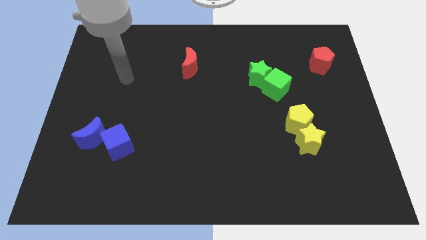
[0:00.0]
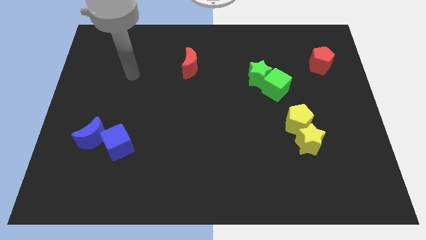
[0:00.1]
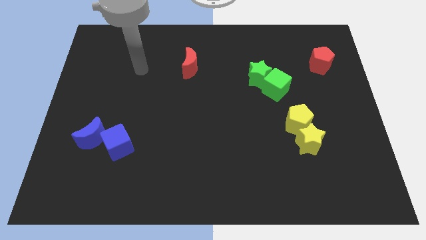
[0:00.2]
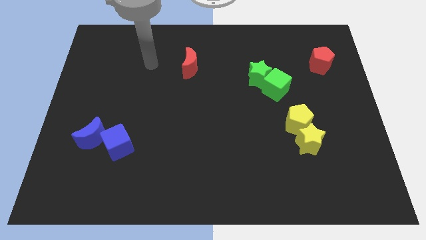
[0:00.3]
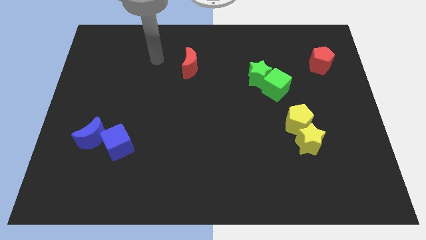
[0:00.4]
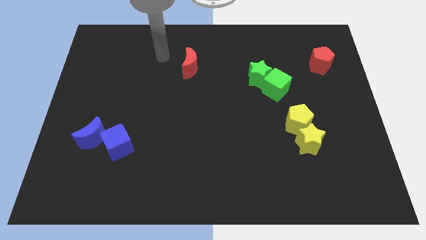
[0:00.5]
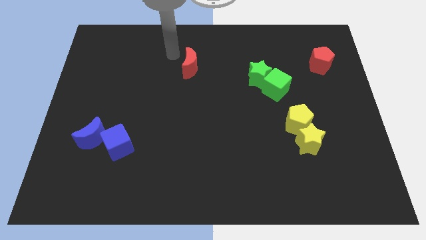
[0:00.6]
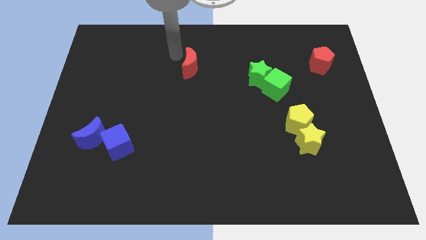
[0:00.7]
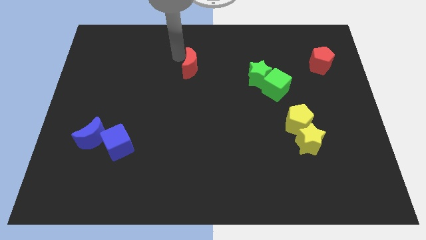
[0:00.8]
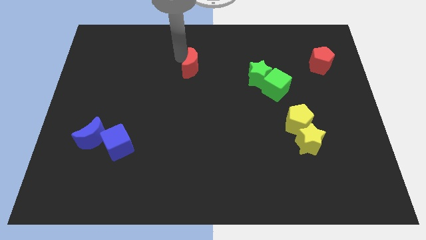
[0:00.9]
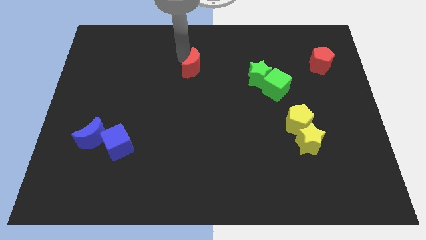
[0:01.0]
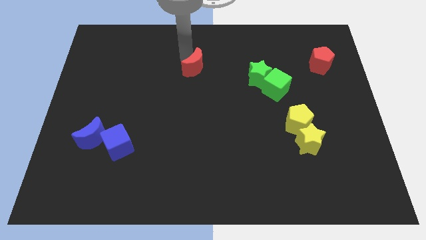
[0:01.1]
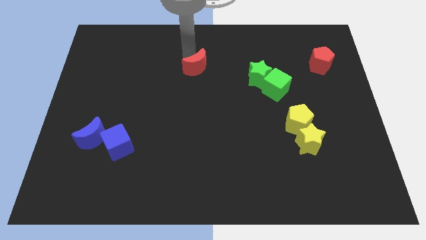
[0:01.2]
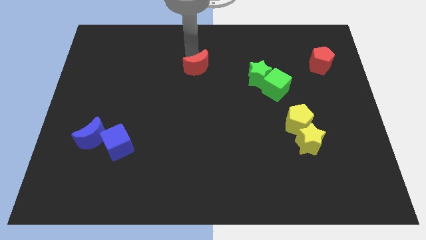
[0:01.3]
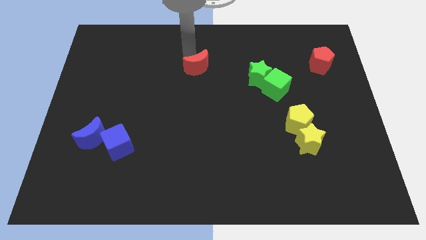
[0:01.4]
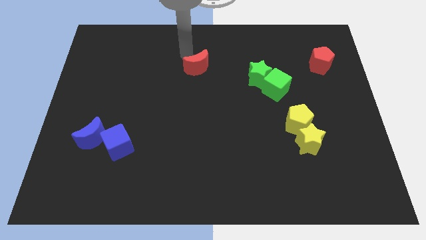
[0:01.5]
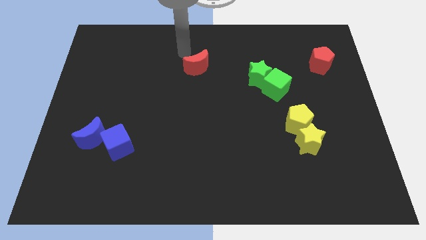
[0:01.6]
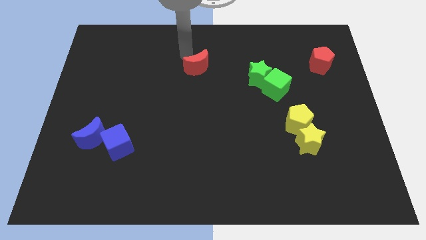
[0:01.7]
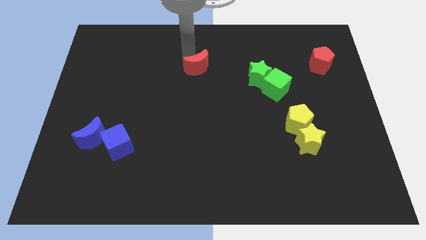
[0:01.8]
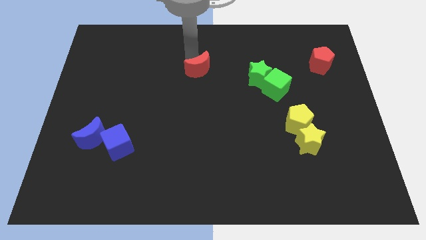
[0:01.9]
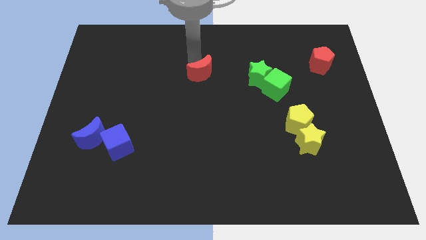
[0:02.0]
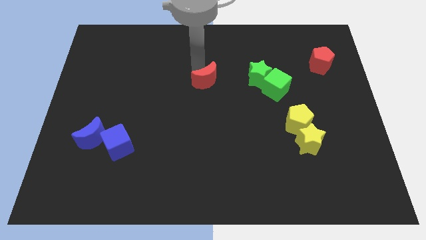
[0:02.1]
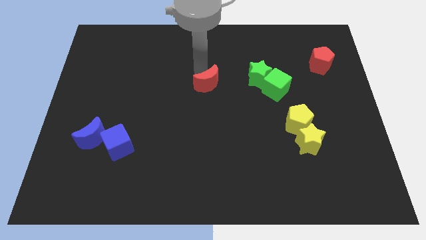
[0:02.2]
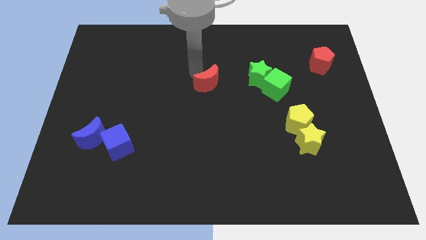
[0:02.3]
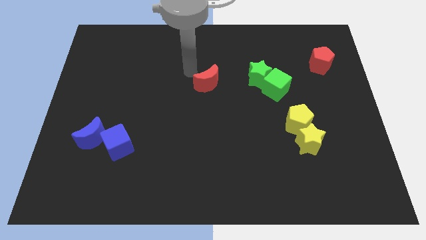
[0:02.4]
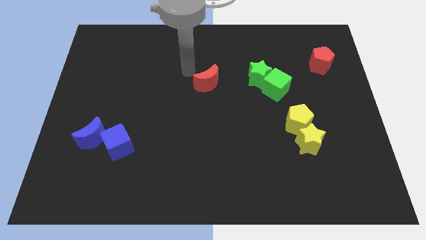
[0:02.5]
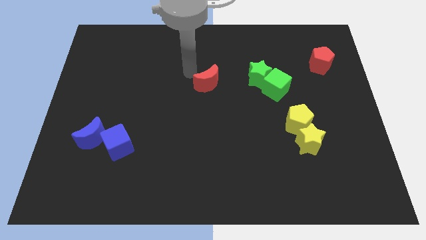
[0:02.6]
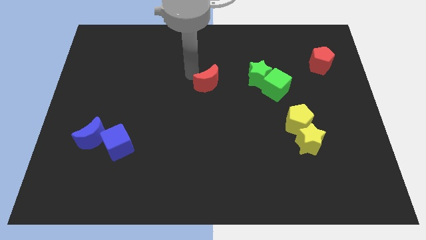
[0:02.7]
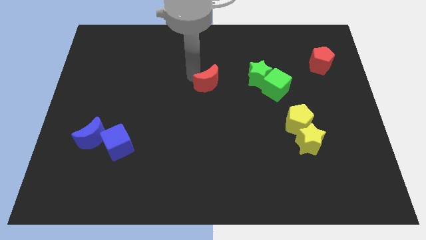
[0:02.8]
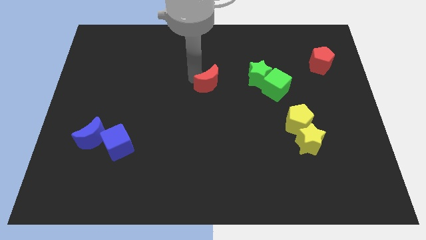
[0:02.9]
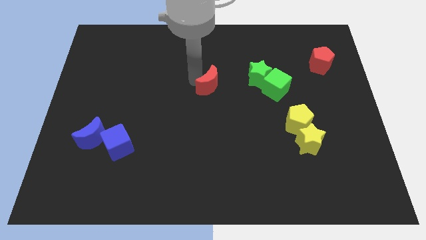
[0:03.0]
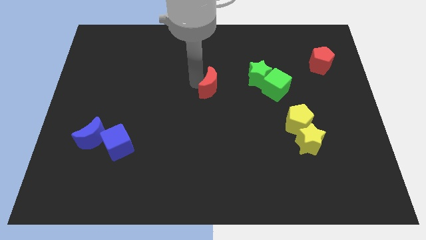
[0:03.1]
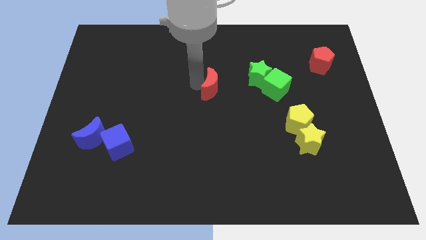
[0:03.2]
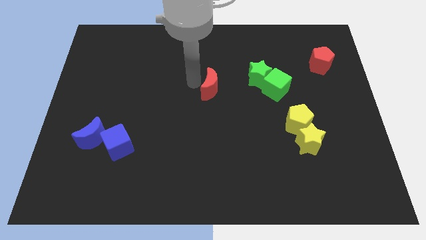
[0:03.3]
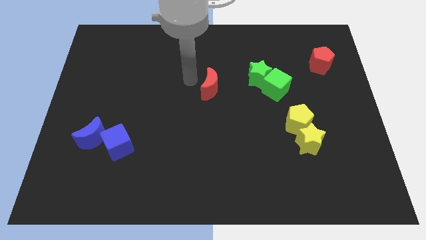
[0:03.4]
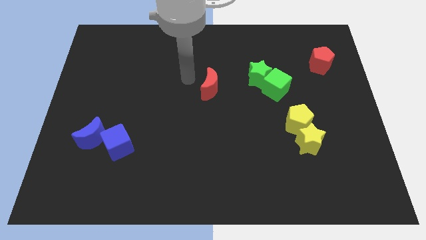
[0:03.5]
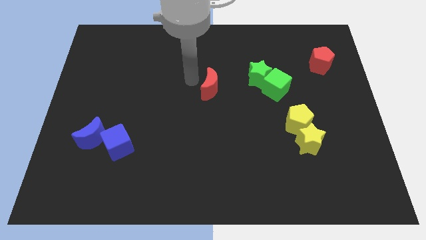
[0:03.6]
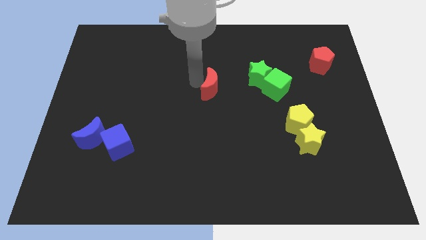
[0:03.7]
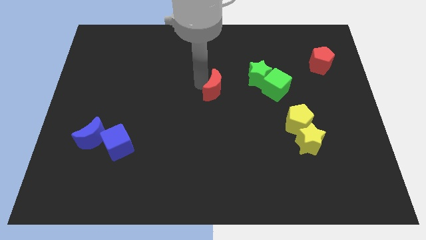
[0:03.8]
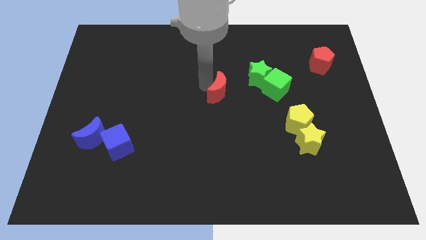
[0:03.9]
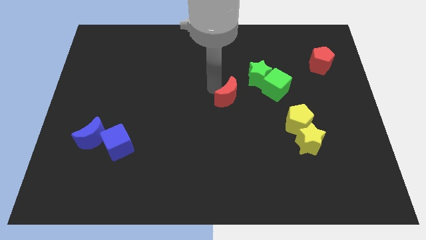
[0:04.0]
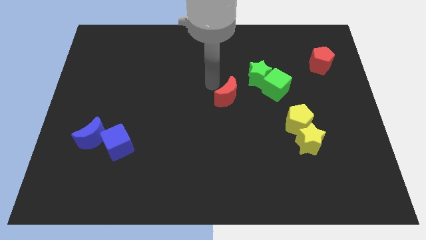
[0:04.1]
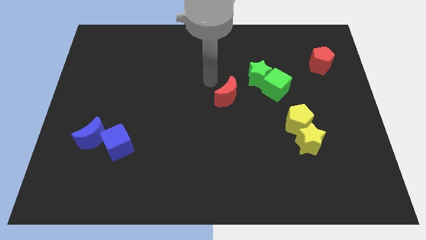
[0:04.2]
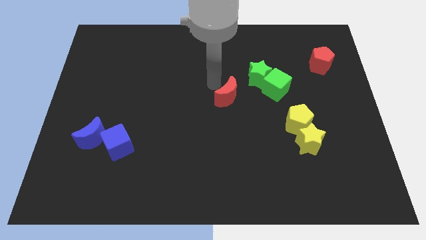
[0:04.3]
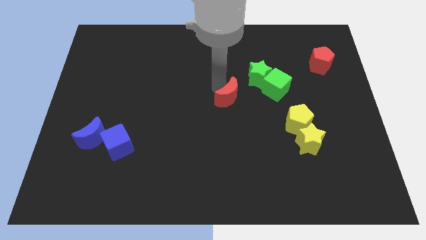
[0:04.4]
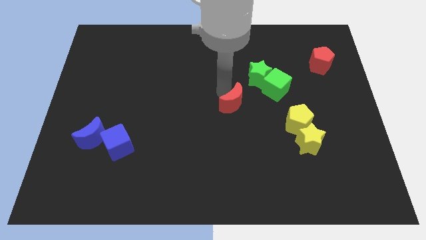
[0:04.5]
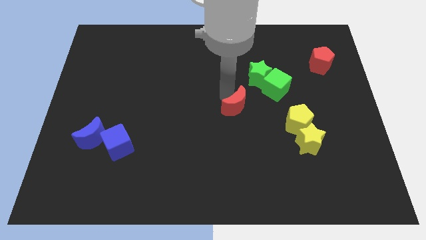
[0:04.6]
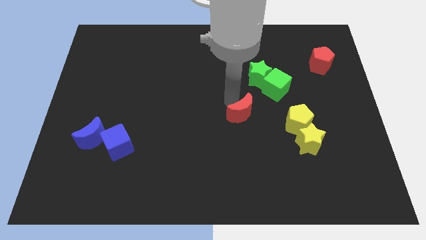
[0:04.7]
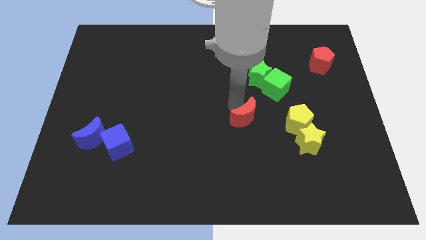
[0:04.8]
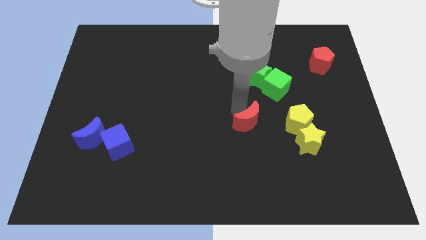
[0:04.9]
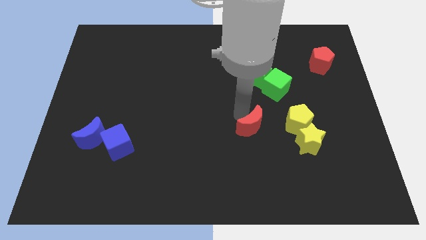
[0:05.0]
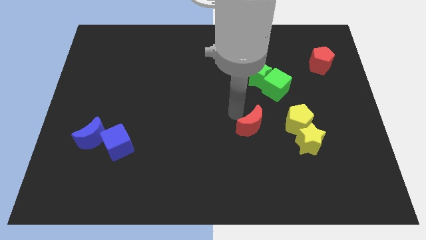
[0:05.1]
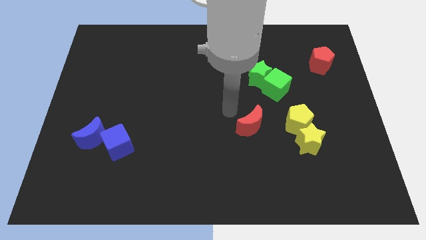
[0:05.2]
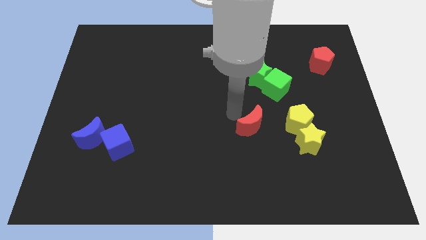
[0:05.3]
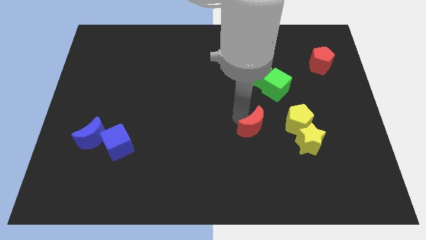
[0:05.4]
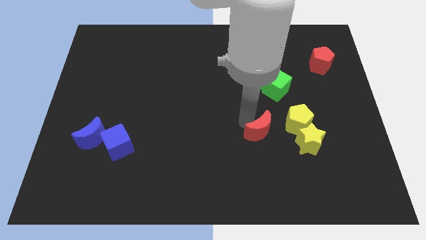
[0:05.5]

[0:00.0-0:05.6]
put the red moon diagonally down and to the left of the yellow pentagon

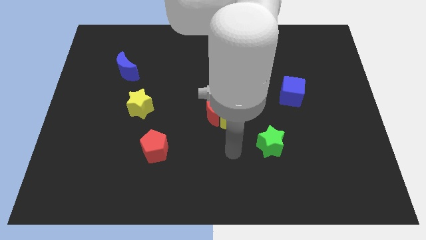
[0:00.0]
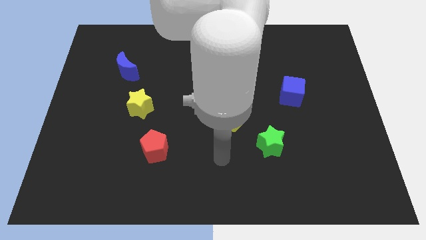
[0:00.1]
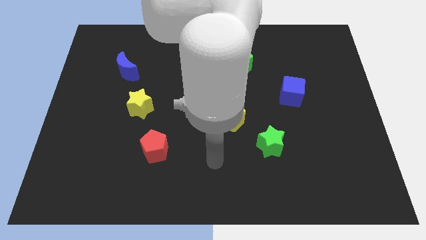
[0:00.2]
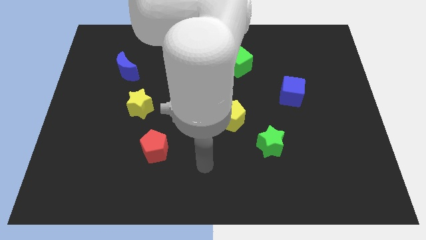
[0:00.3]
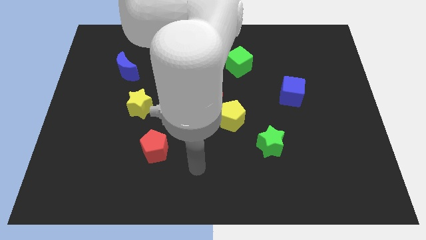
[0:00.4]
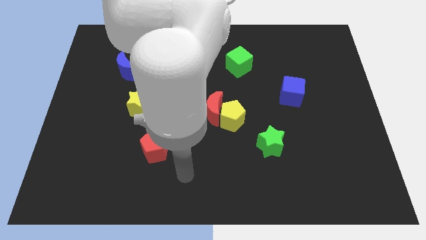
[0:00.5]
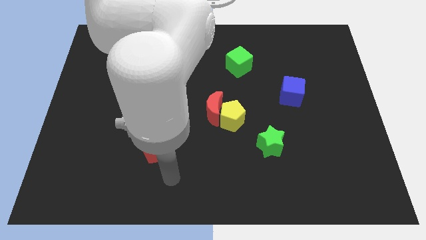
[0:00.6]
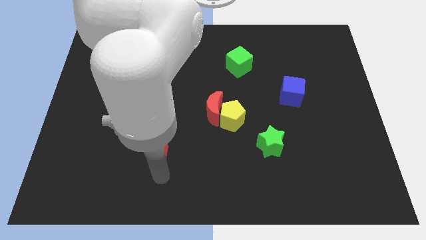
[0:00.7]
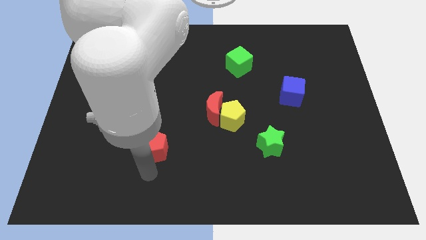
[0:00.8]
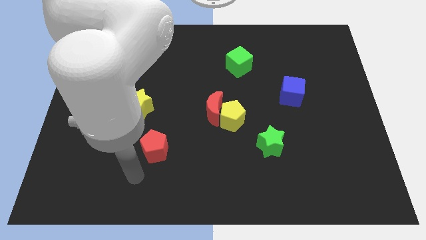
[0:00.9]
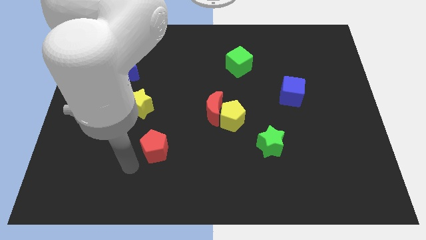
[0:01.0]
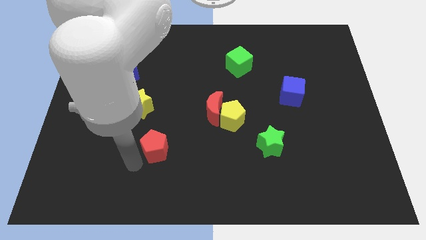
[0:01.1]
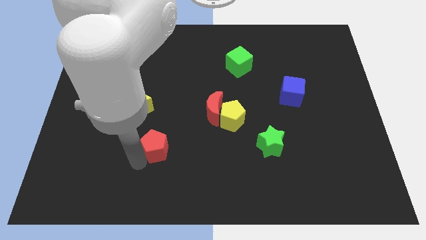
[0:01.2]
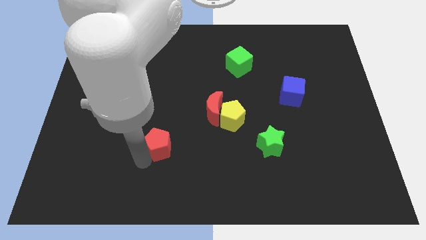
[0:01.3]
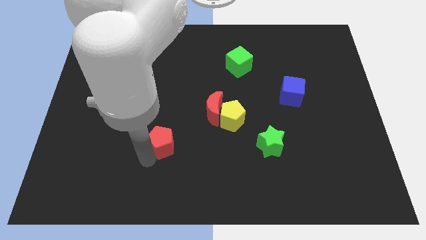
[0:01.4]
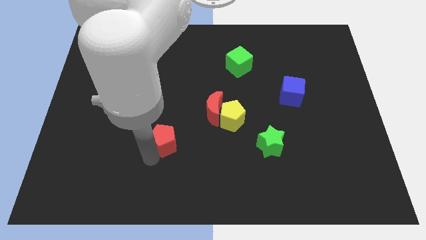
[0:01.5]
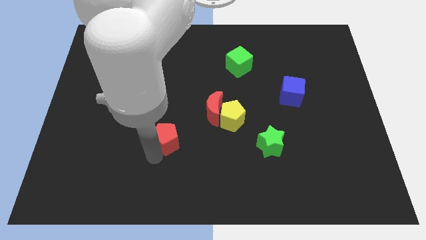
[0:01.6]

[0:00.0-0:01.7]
move the red pentagon to the bottom left side of the red moon
